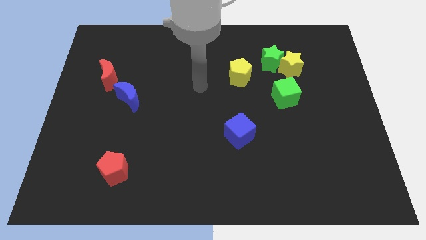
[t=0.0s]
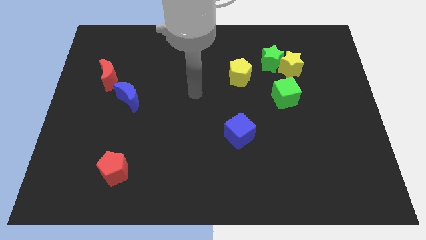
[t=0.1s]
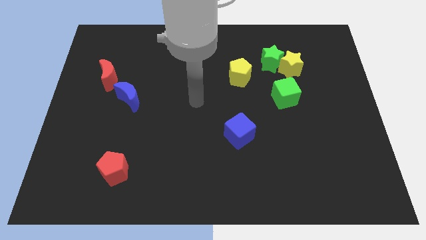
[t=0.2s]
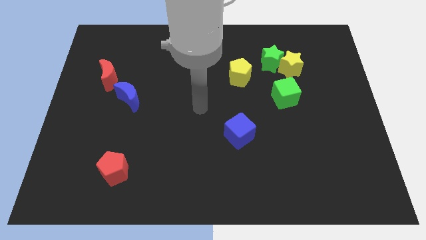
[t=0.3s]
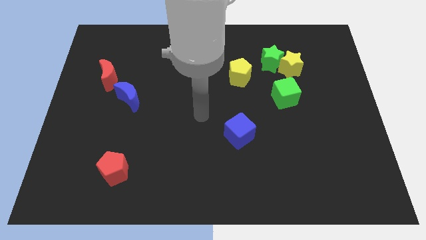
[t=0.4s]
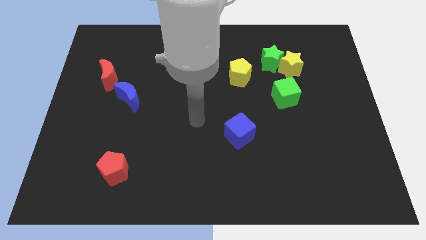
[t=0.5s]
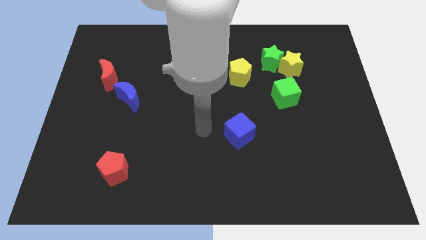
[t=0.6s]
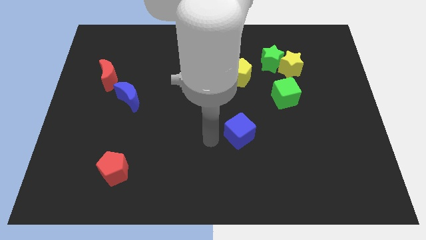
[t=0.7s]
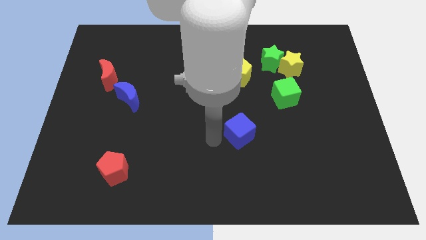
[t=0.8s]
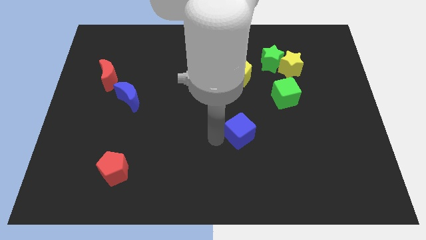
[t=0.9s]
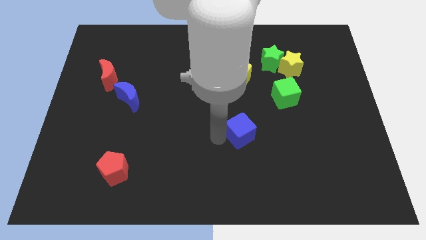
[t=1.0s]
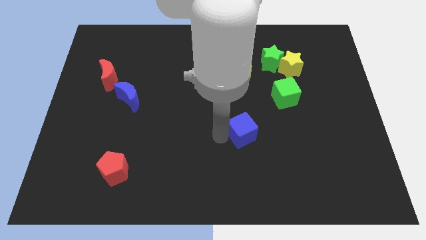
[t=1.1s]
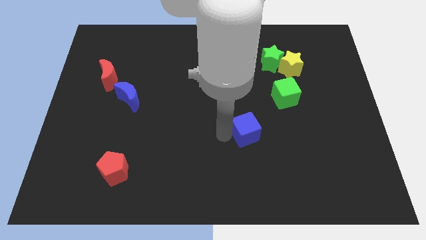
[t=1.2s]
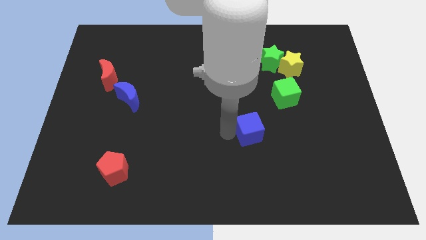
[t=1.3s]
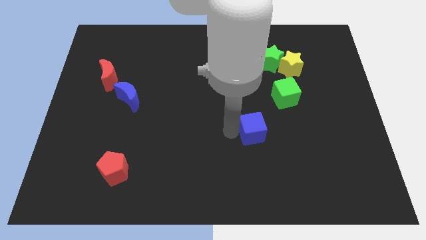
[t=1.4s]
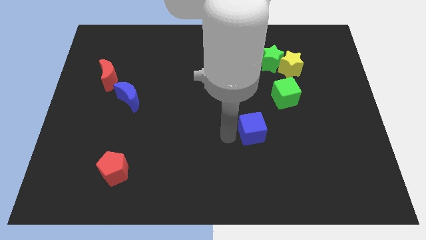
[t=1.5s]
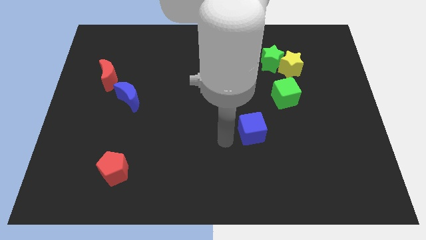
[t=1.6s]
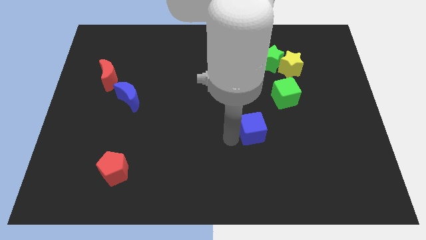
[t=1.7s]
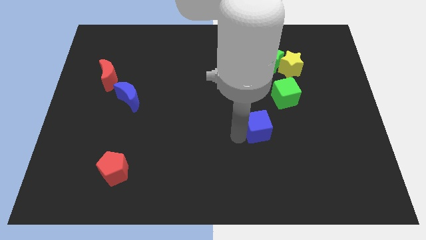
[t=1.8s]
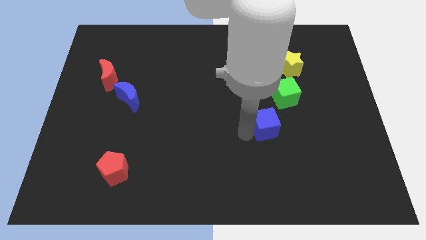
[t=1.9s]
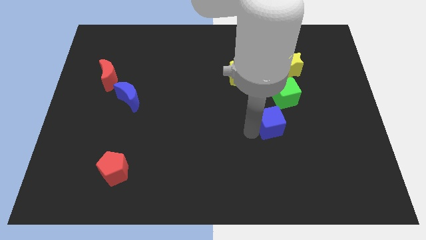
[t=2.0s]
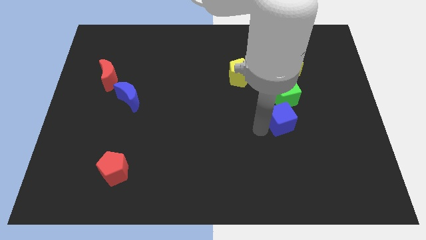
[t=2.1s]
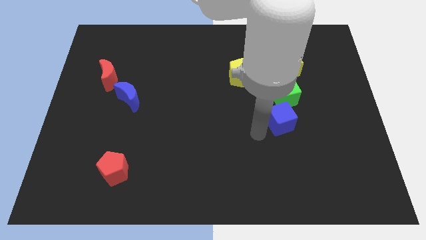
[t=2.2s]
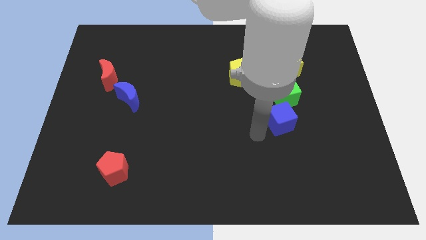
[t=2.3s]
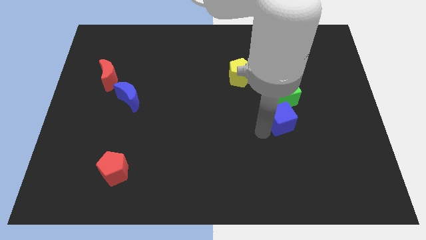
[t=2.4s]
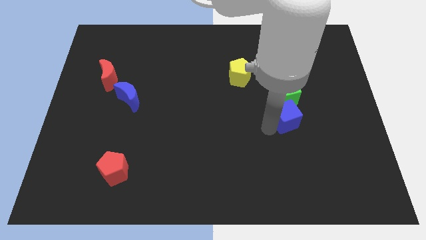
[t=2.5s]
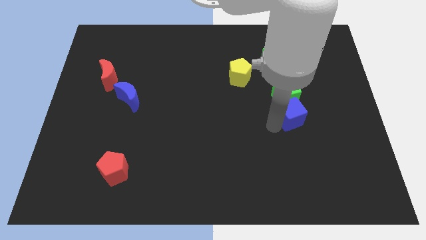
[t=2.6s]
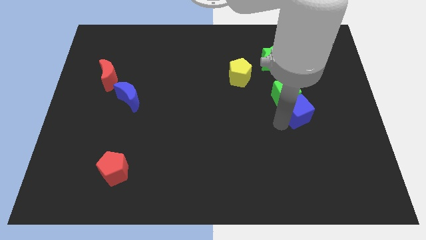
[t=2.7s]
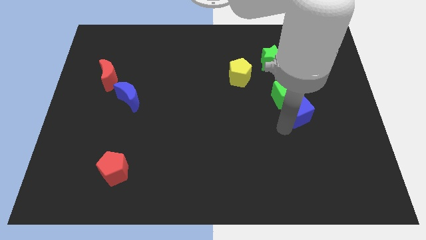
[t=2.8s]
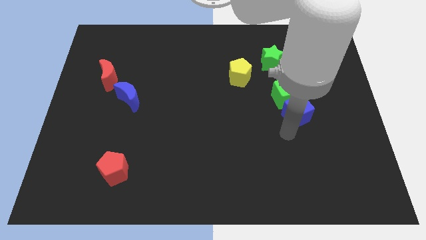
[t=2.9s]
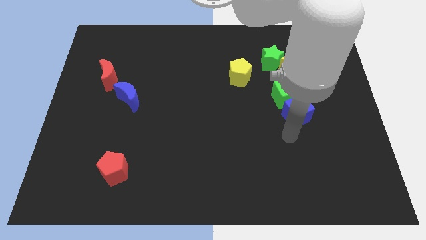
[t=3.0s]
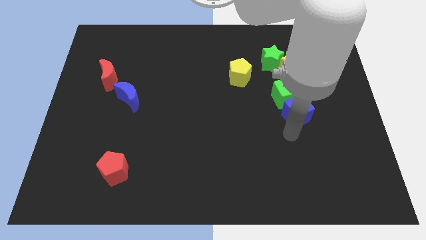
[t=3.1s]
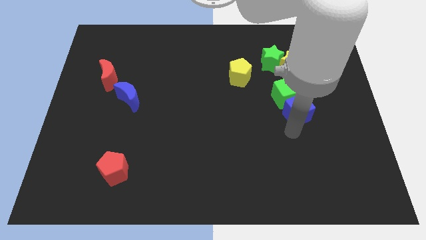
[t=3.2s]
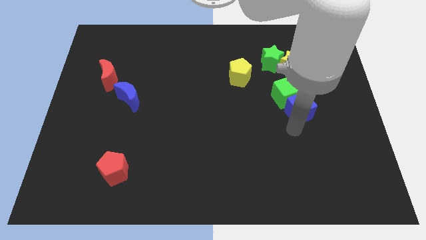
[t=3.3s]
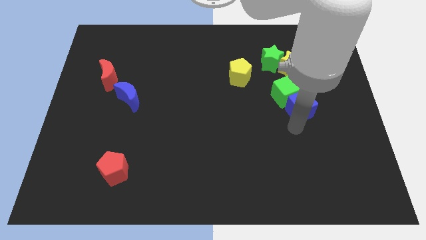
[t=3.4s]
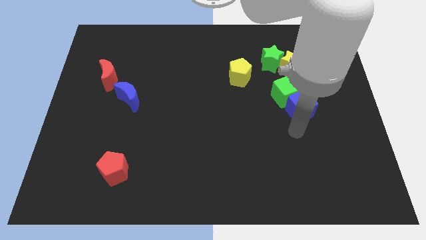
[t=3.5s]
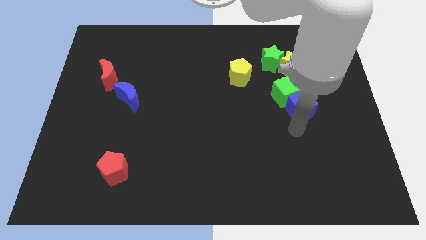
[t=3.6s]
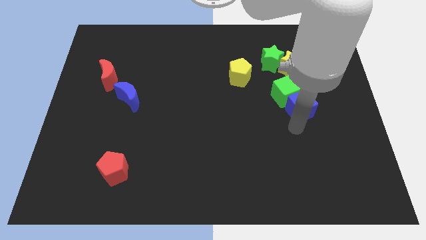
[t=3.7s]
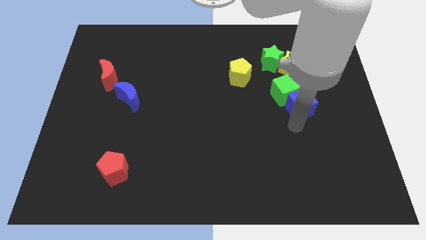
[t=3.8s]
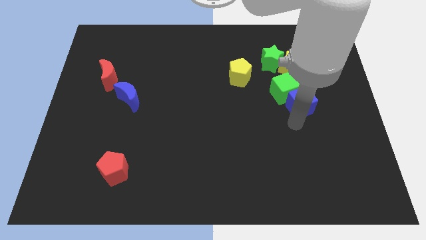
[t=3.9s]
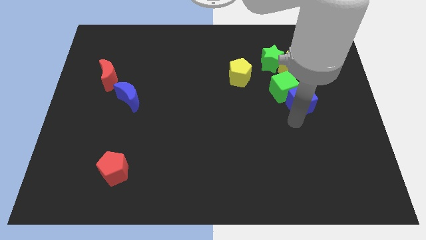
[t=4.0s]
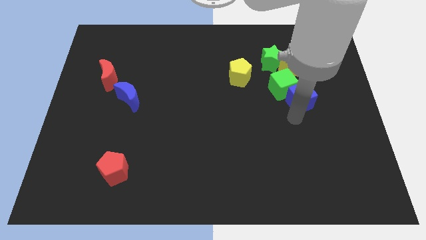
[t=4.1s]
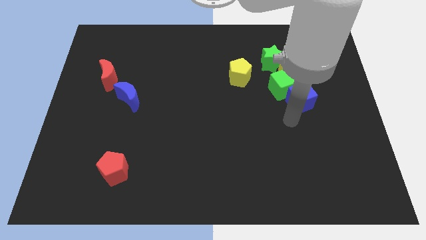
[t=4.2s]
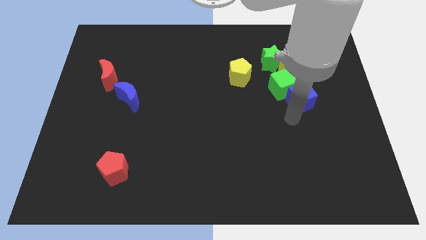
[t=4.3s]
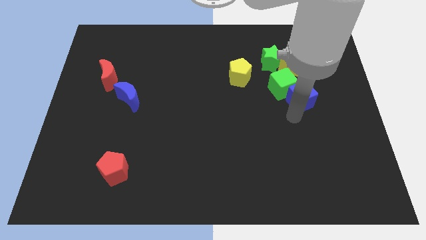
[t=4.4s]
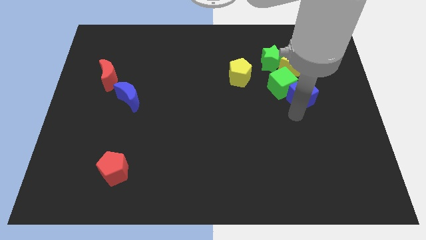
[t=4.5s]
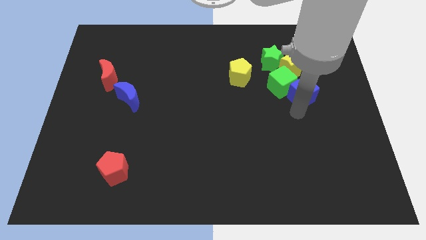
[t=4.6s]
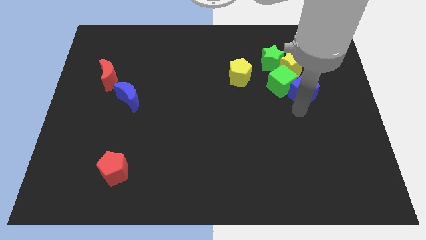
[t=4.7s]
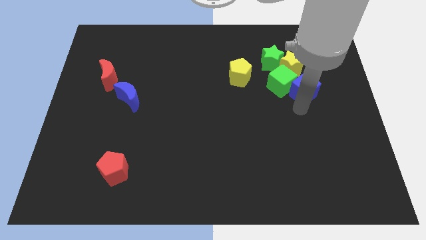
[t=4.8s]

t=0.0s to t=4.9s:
move the blue cube upwards and then right

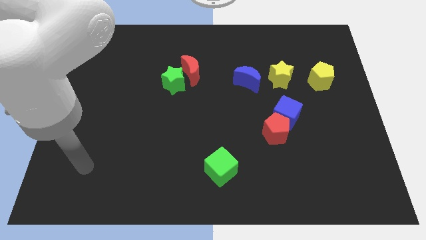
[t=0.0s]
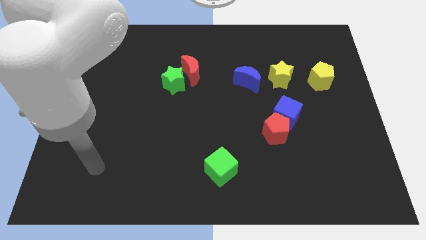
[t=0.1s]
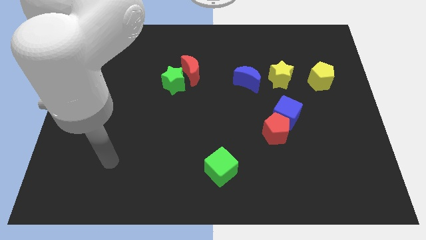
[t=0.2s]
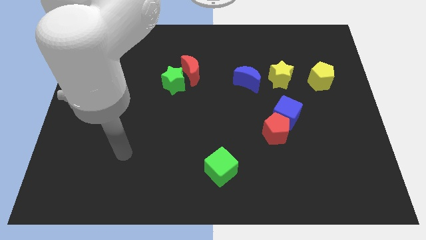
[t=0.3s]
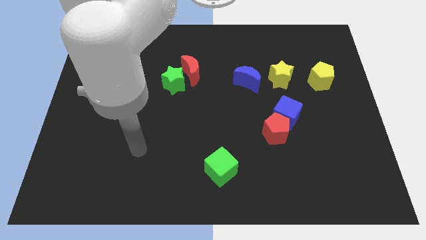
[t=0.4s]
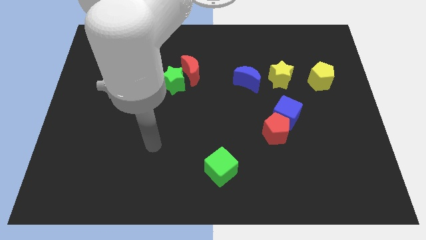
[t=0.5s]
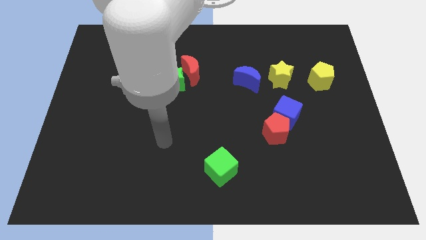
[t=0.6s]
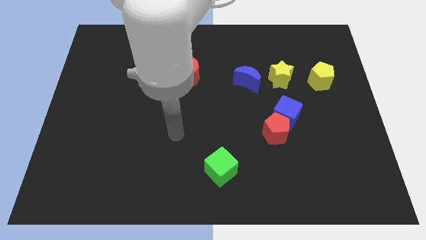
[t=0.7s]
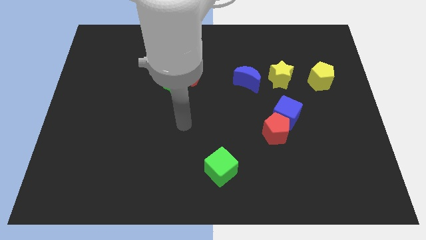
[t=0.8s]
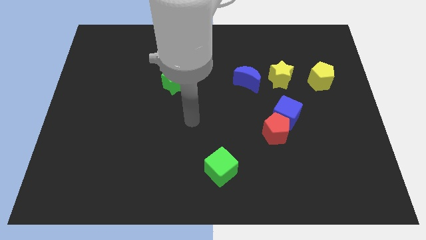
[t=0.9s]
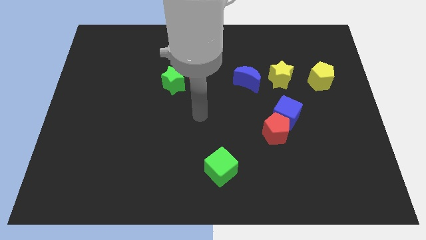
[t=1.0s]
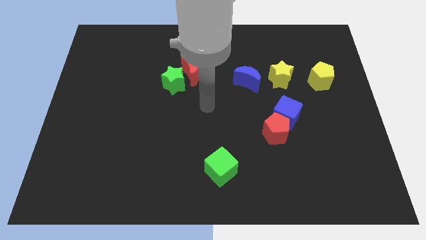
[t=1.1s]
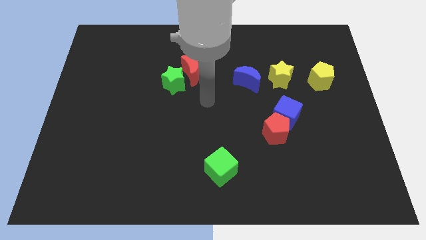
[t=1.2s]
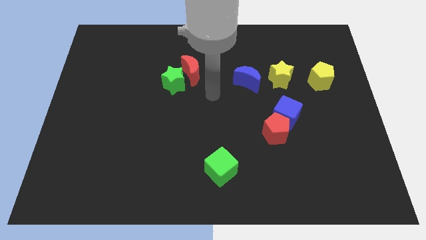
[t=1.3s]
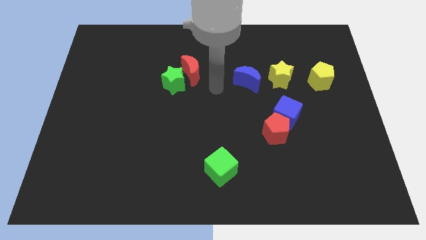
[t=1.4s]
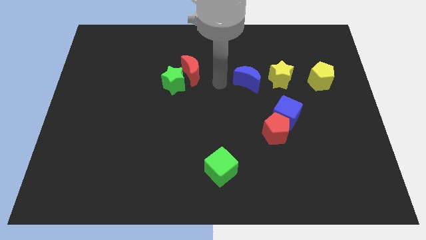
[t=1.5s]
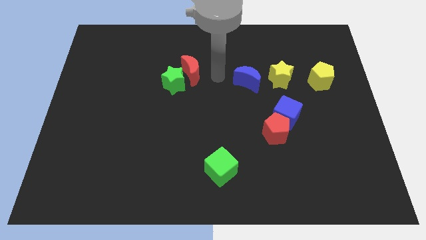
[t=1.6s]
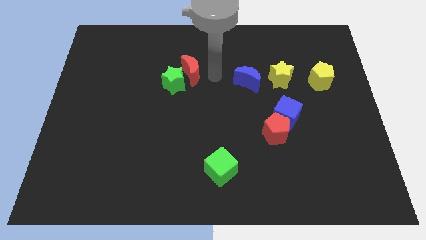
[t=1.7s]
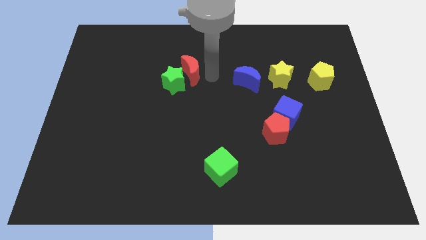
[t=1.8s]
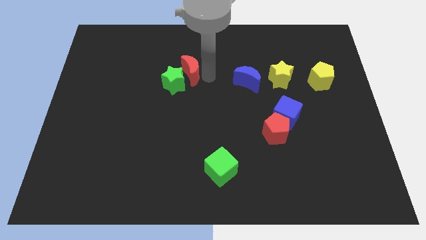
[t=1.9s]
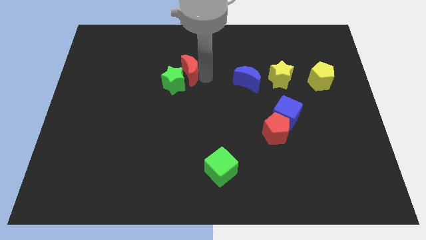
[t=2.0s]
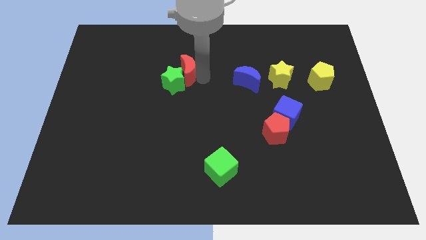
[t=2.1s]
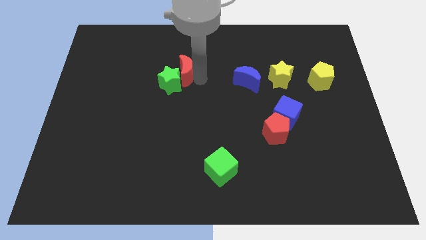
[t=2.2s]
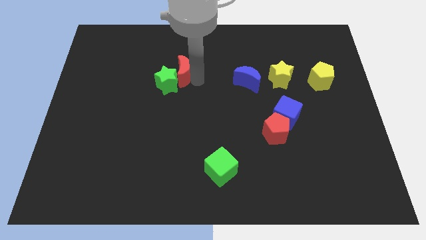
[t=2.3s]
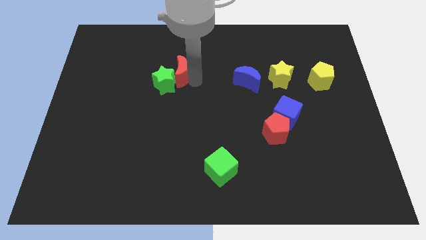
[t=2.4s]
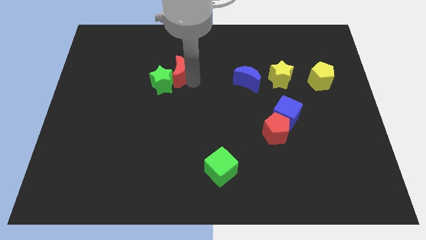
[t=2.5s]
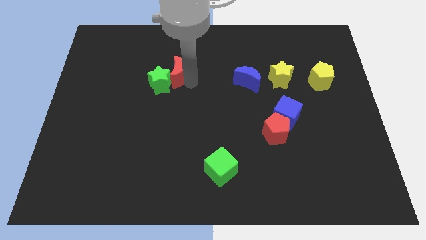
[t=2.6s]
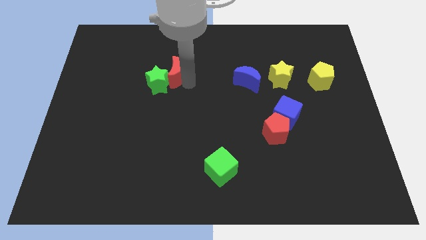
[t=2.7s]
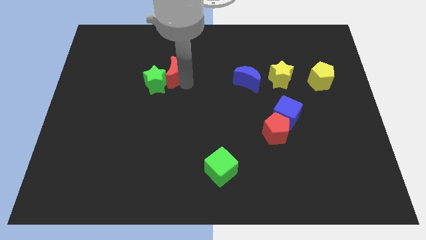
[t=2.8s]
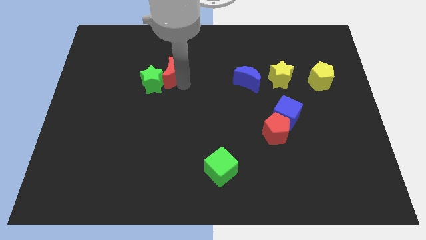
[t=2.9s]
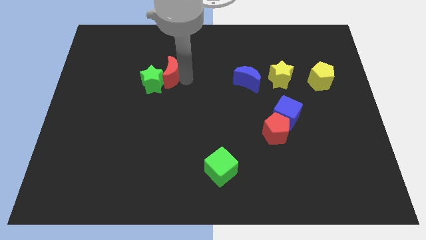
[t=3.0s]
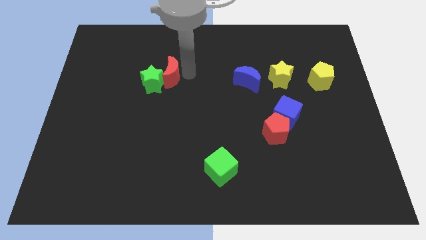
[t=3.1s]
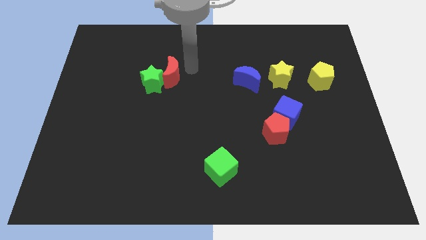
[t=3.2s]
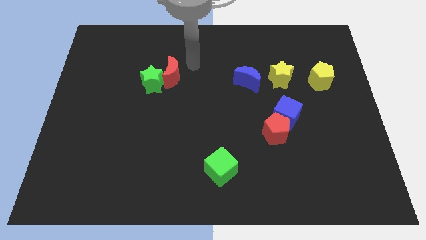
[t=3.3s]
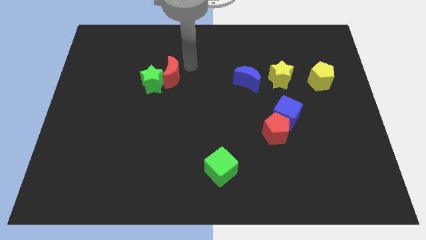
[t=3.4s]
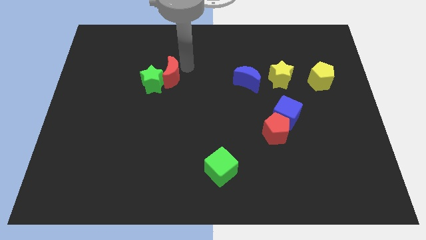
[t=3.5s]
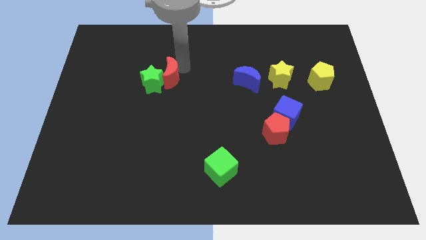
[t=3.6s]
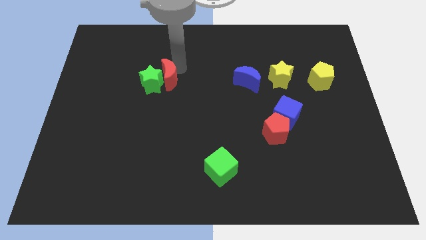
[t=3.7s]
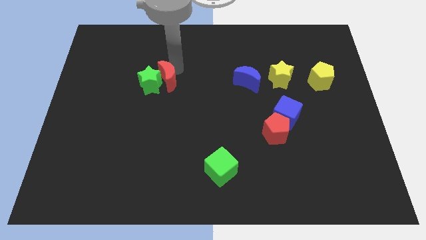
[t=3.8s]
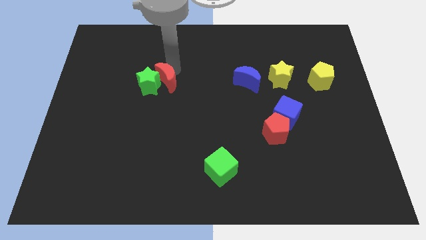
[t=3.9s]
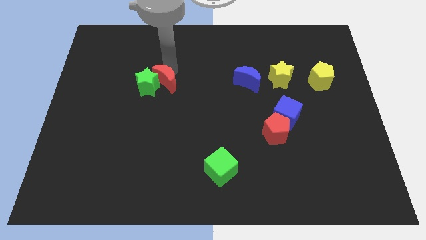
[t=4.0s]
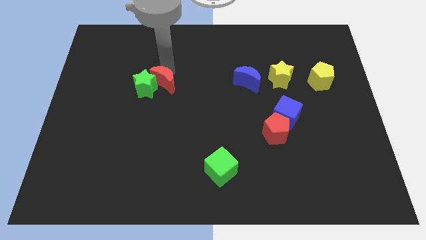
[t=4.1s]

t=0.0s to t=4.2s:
push the red moon downwards and left diagonally slightly
